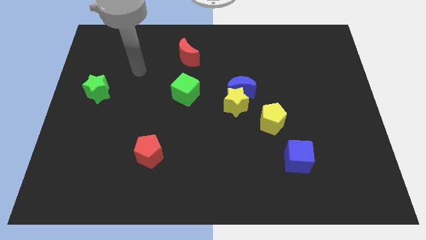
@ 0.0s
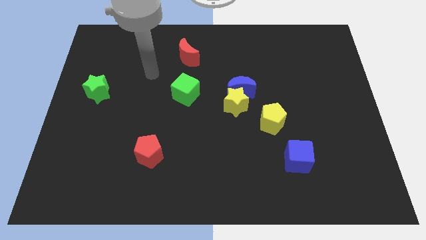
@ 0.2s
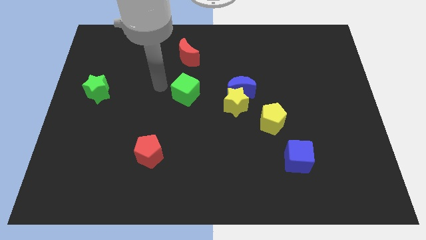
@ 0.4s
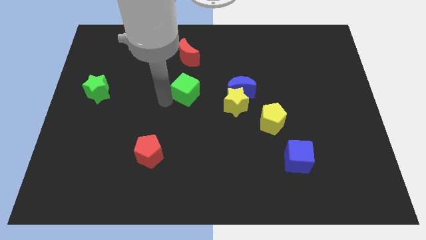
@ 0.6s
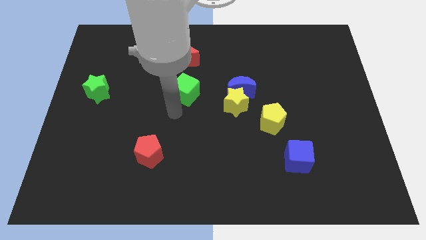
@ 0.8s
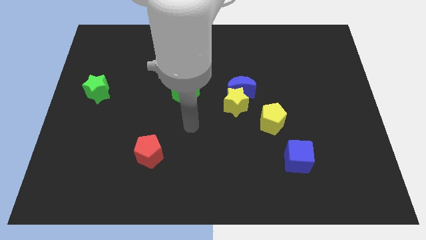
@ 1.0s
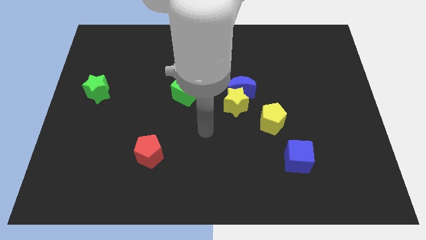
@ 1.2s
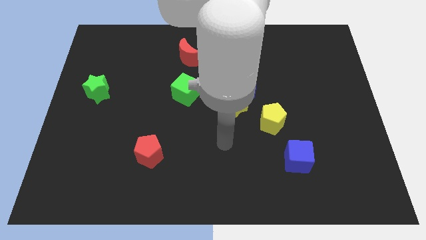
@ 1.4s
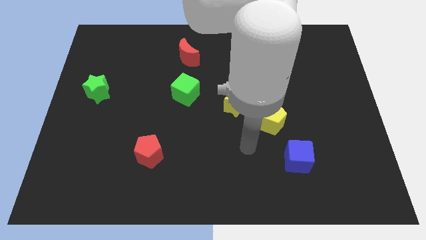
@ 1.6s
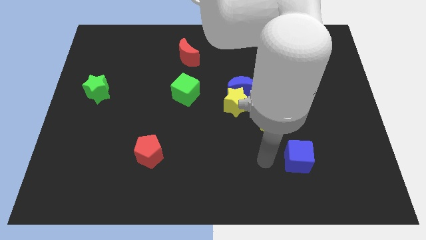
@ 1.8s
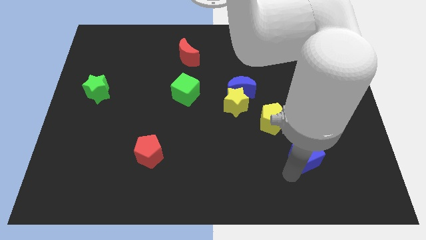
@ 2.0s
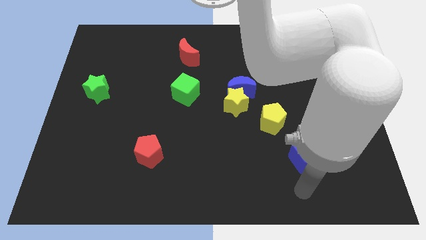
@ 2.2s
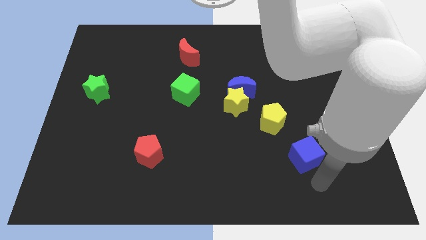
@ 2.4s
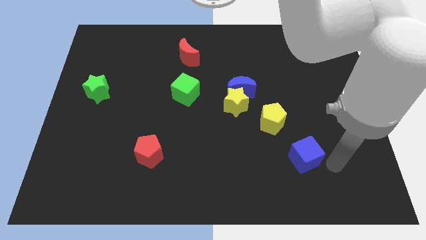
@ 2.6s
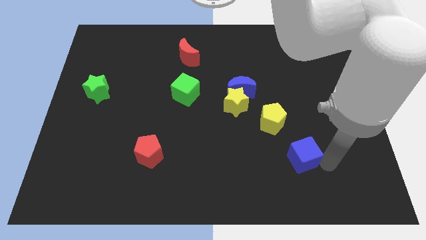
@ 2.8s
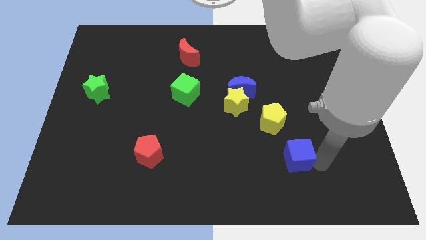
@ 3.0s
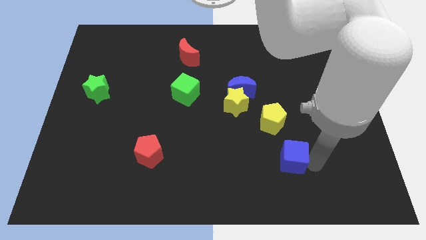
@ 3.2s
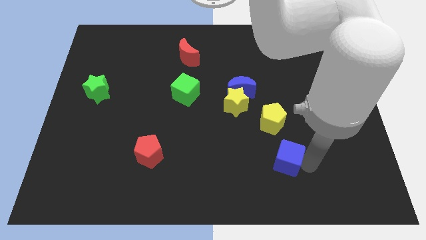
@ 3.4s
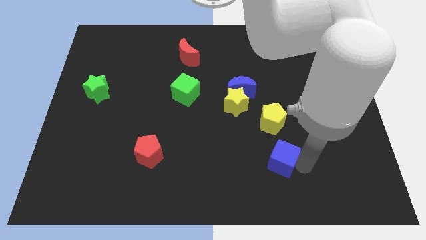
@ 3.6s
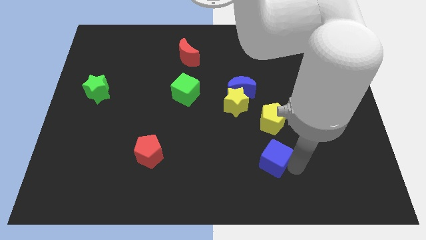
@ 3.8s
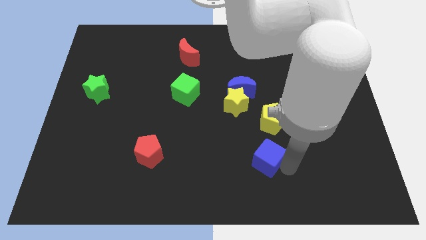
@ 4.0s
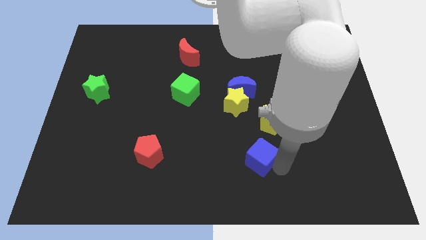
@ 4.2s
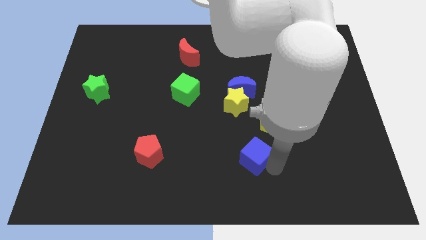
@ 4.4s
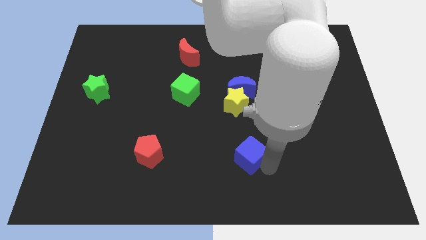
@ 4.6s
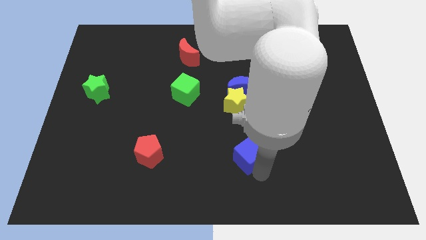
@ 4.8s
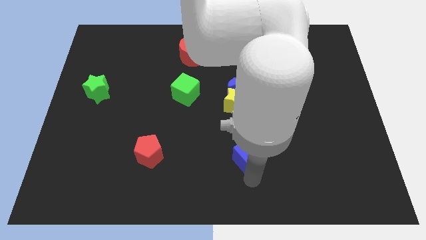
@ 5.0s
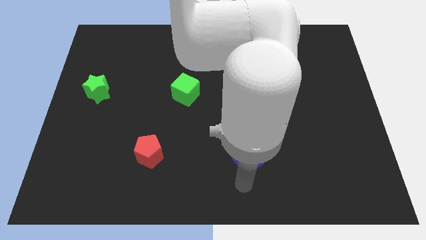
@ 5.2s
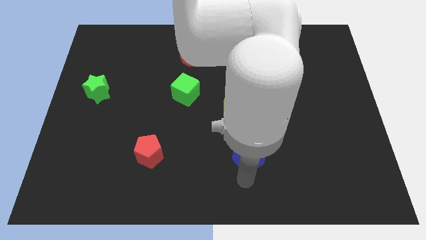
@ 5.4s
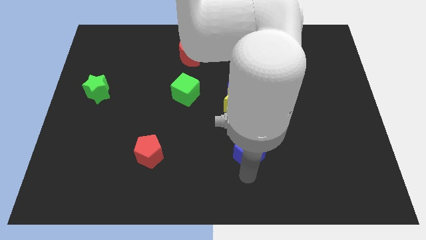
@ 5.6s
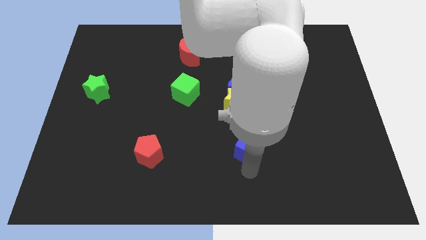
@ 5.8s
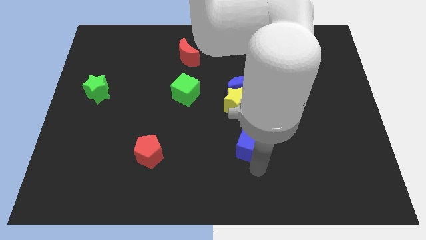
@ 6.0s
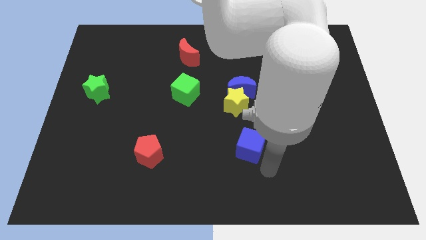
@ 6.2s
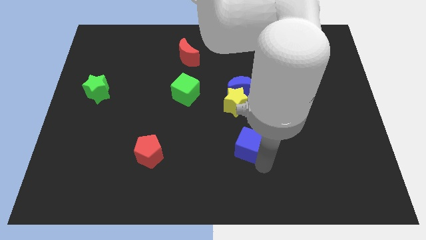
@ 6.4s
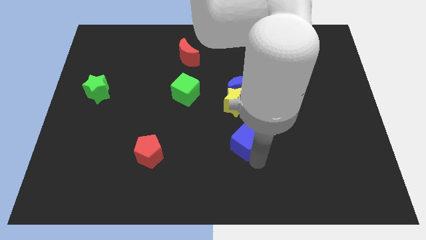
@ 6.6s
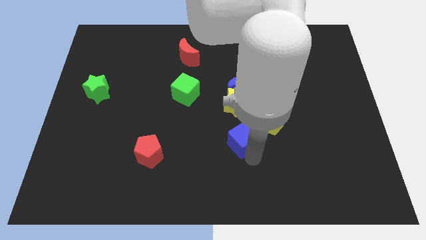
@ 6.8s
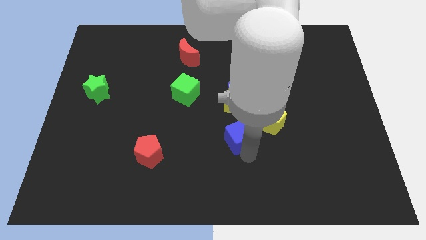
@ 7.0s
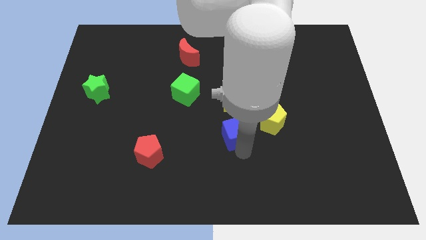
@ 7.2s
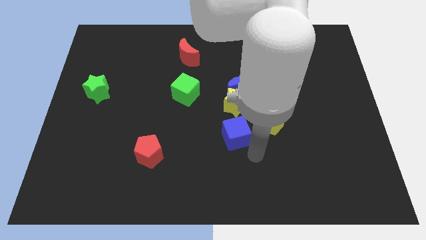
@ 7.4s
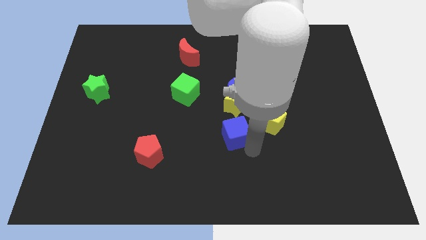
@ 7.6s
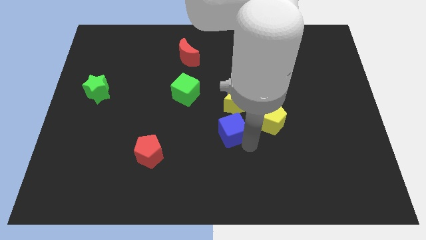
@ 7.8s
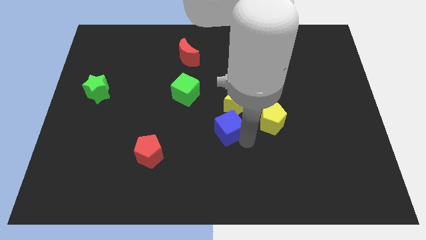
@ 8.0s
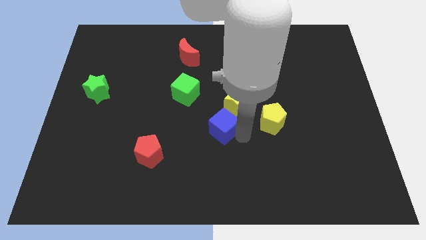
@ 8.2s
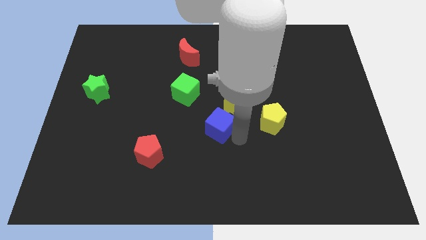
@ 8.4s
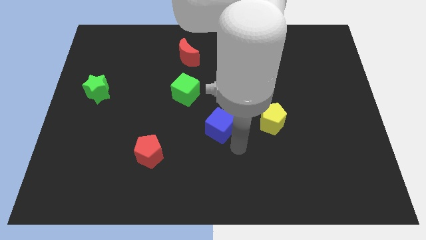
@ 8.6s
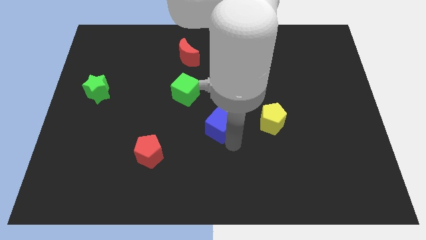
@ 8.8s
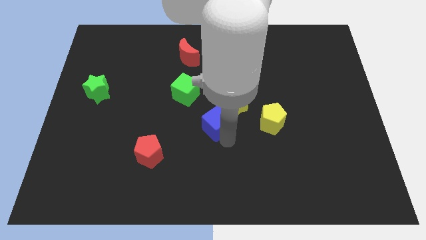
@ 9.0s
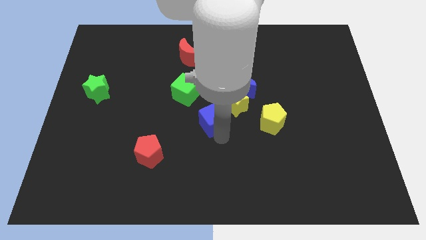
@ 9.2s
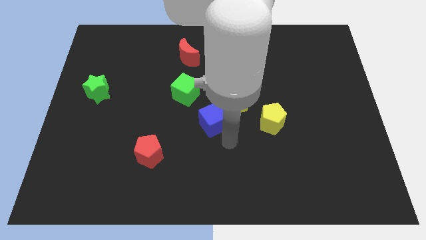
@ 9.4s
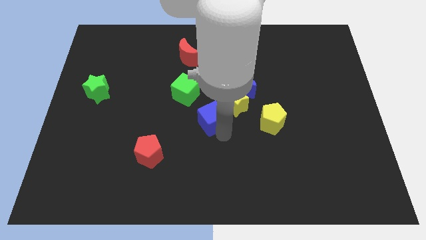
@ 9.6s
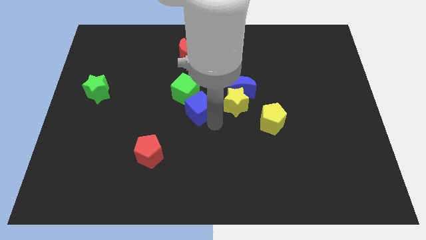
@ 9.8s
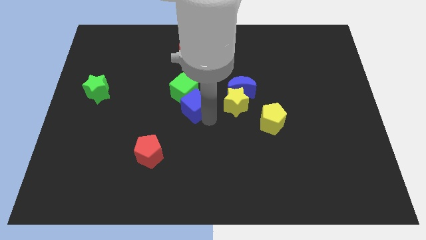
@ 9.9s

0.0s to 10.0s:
put the blue cube close to the green cube

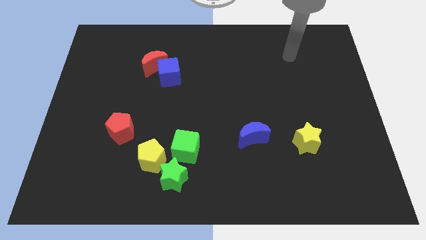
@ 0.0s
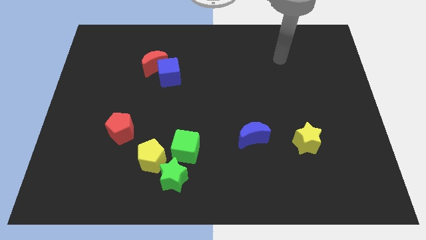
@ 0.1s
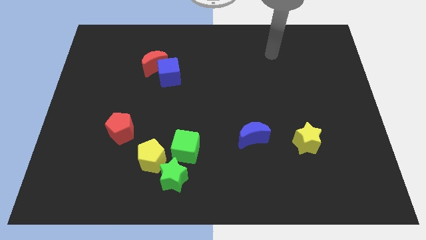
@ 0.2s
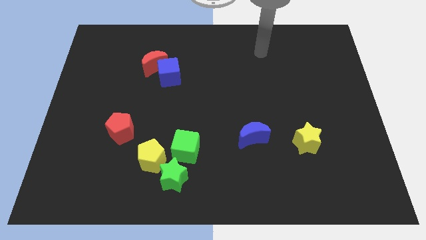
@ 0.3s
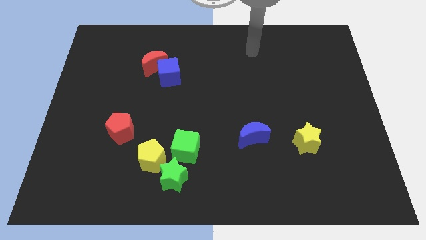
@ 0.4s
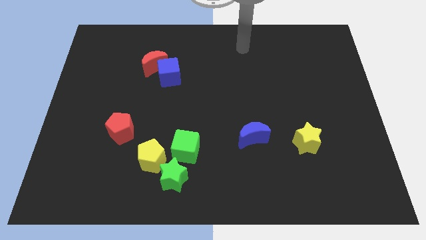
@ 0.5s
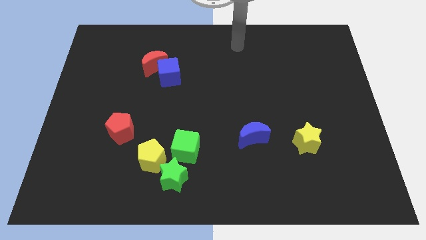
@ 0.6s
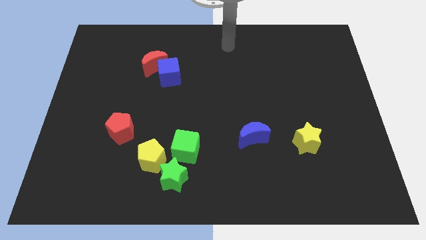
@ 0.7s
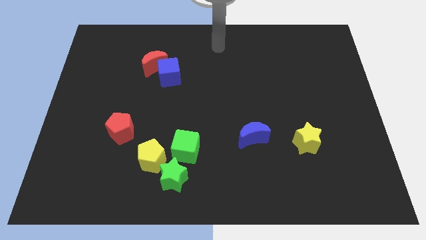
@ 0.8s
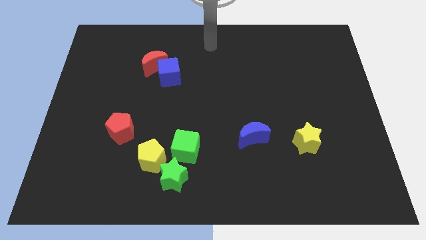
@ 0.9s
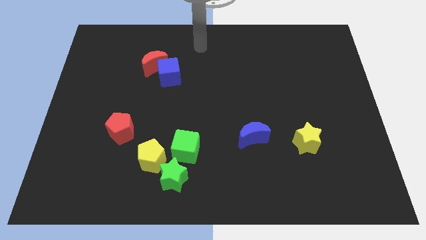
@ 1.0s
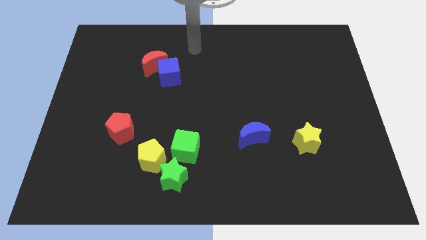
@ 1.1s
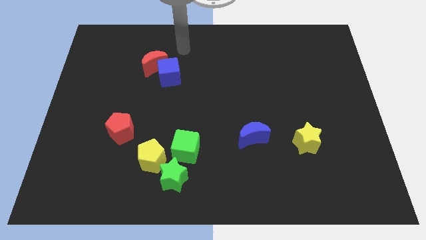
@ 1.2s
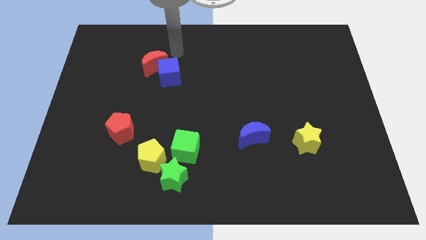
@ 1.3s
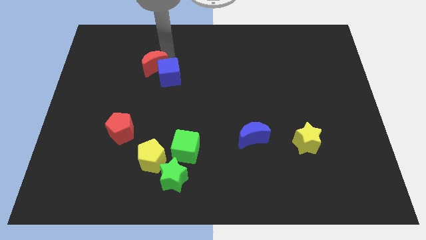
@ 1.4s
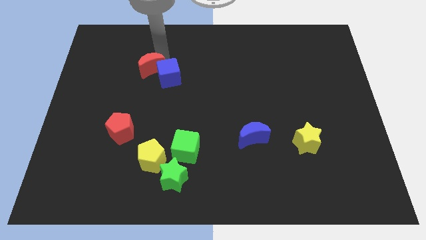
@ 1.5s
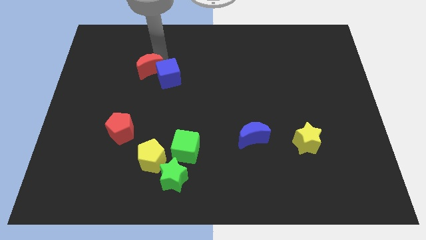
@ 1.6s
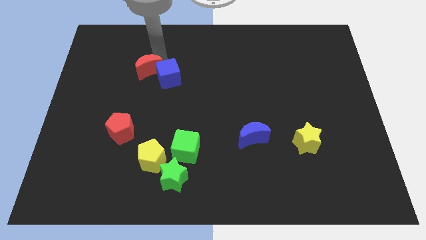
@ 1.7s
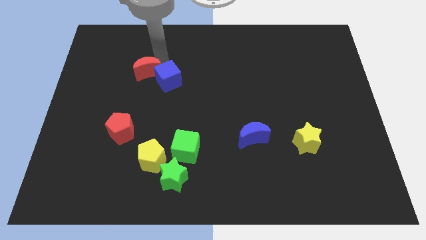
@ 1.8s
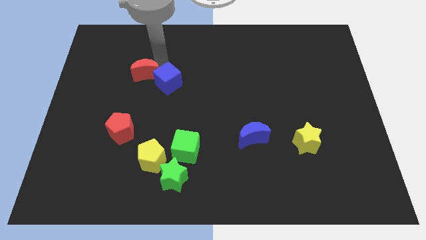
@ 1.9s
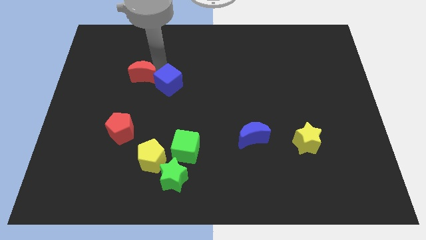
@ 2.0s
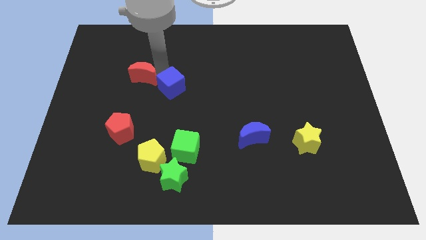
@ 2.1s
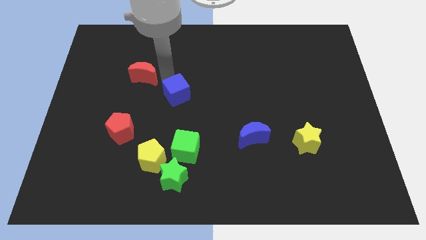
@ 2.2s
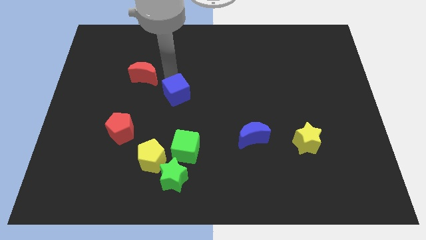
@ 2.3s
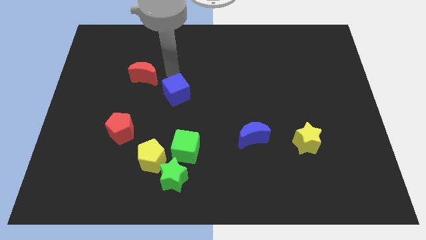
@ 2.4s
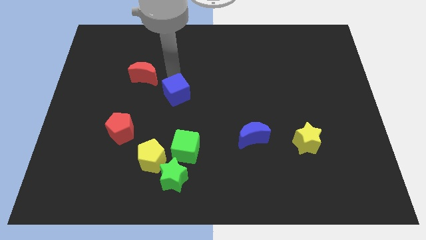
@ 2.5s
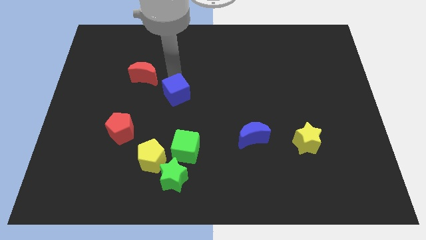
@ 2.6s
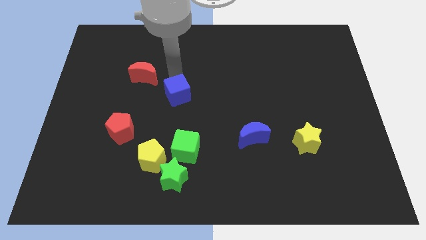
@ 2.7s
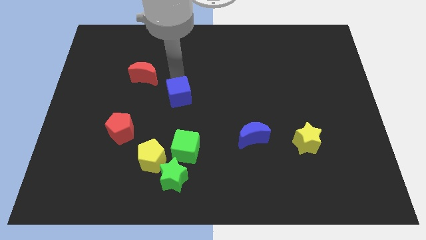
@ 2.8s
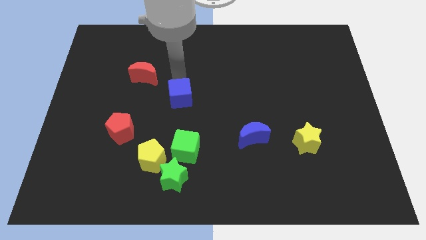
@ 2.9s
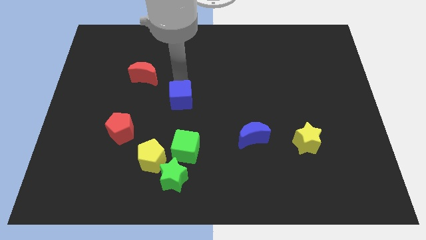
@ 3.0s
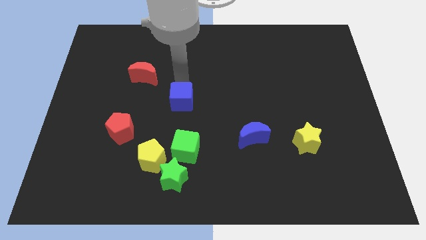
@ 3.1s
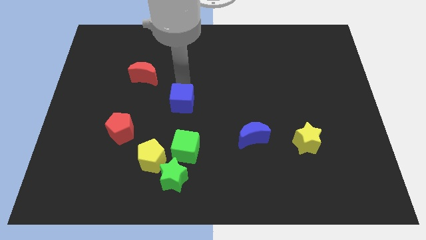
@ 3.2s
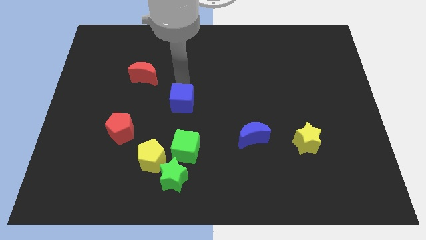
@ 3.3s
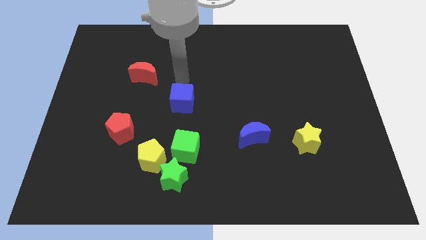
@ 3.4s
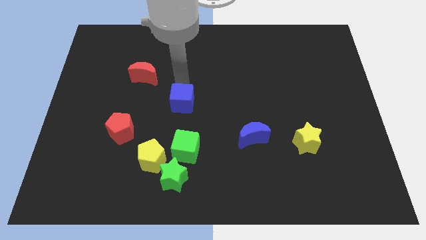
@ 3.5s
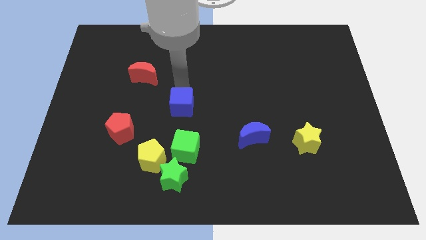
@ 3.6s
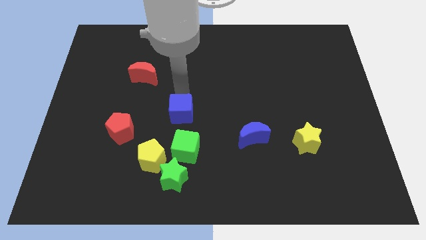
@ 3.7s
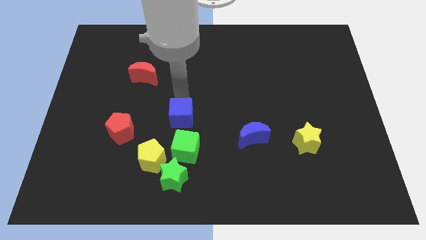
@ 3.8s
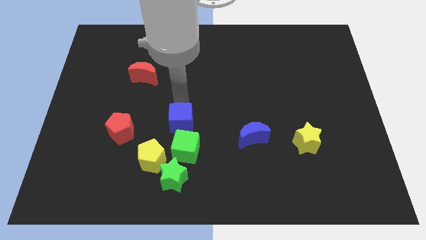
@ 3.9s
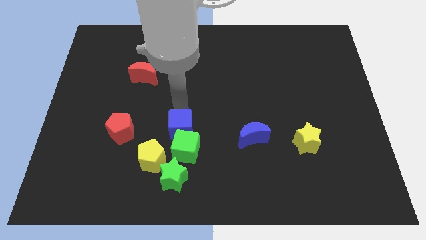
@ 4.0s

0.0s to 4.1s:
slide the blue cube to the green cube
